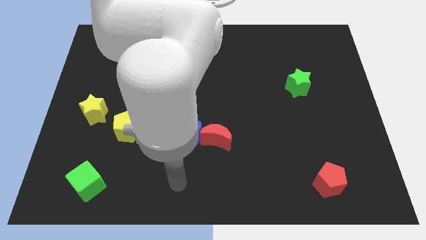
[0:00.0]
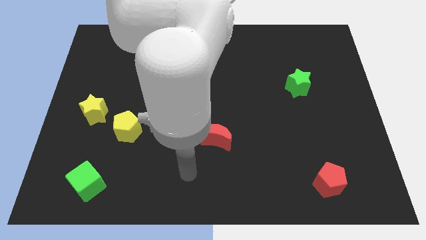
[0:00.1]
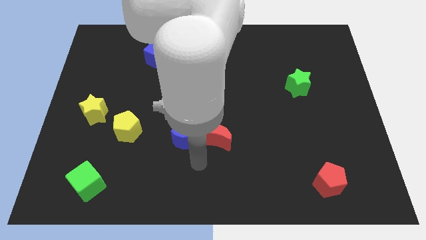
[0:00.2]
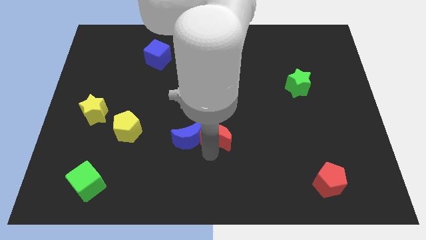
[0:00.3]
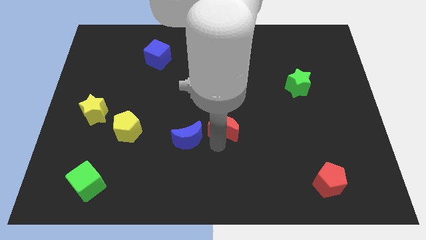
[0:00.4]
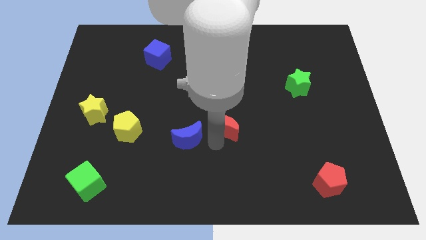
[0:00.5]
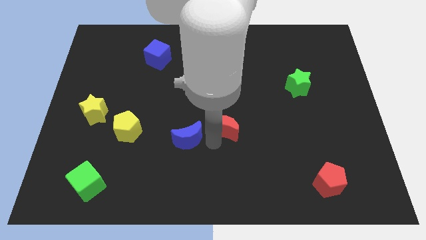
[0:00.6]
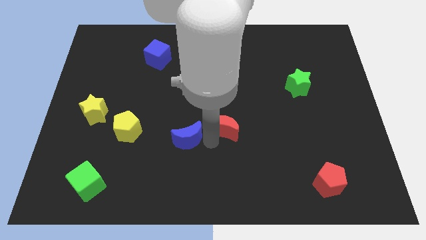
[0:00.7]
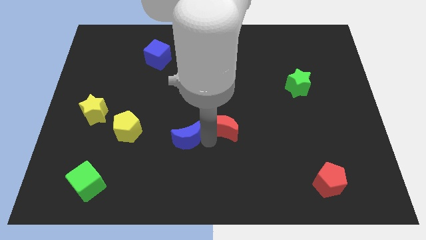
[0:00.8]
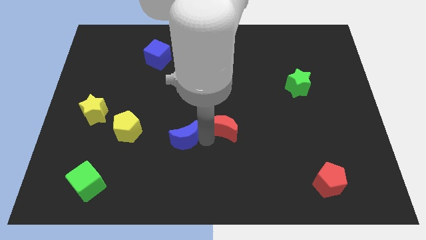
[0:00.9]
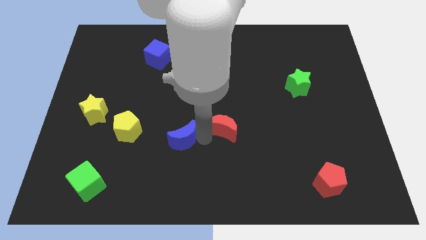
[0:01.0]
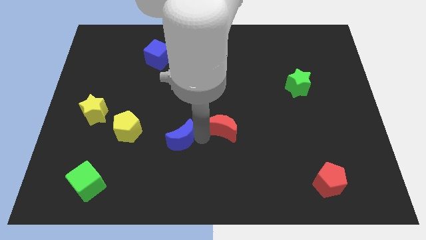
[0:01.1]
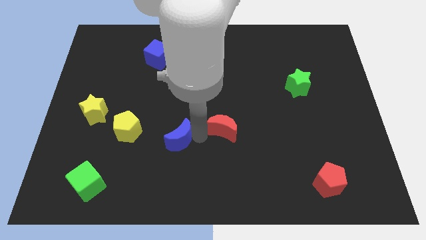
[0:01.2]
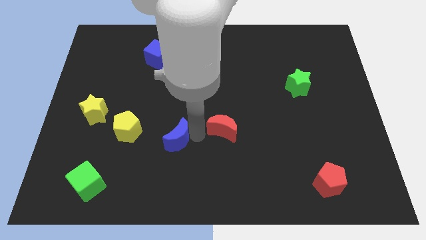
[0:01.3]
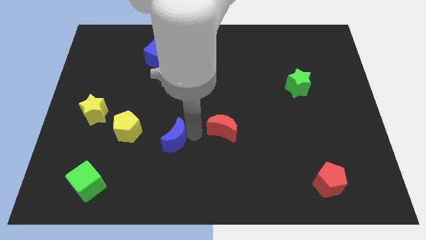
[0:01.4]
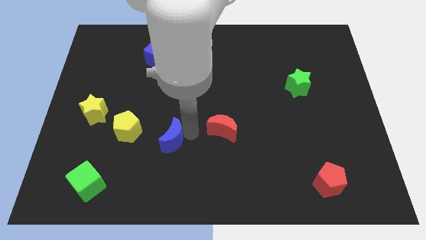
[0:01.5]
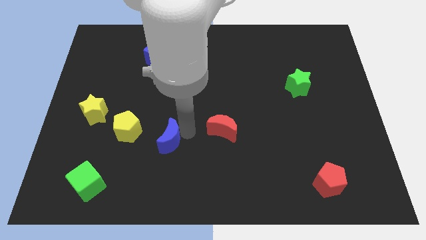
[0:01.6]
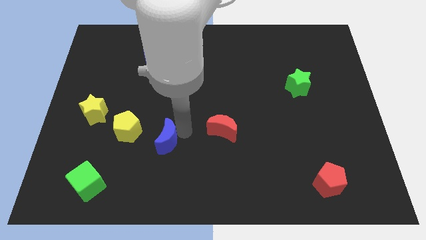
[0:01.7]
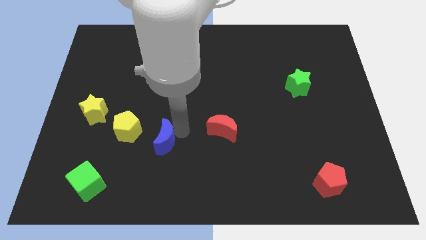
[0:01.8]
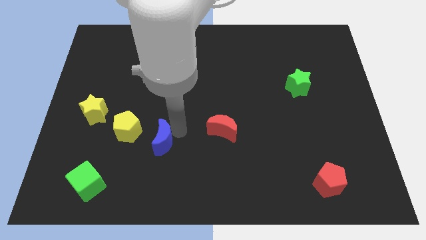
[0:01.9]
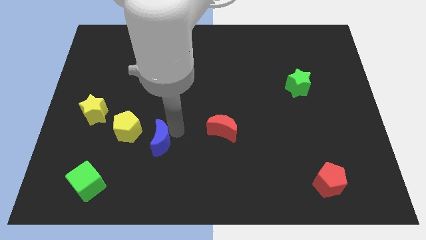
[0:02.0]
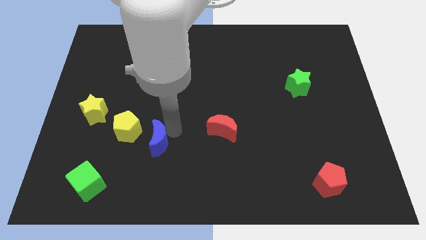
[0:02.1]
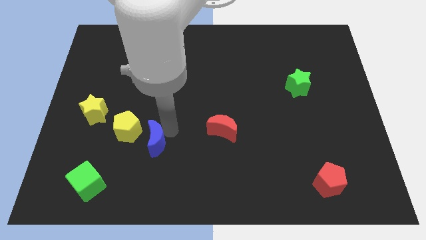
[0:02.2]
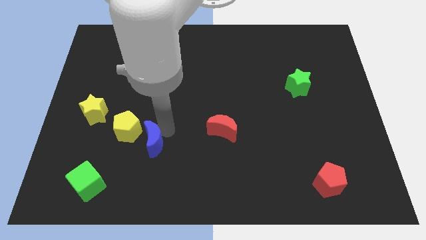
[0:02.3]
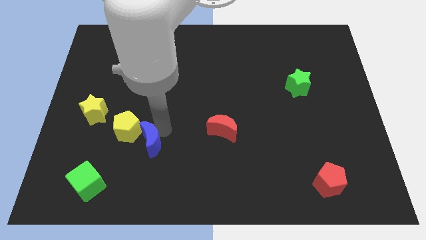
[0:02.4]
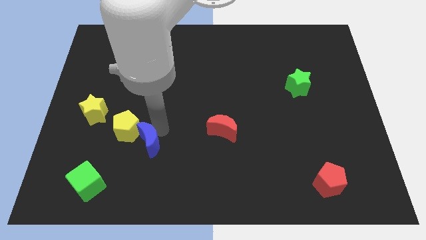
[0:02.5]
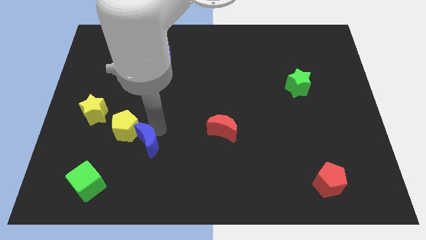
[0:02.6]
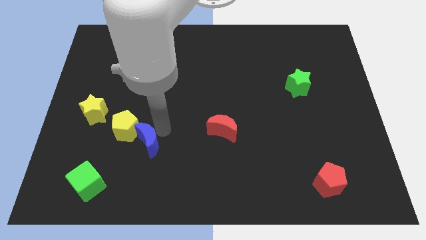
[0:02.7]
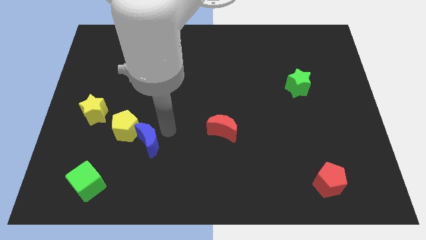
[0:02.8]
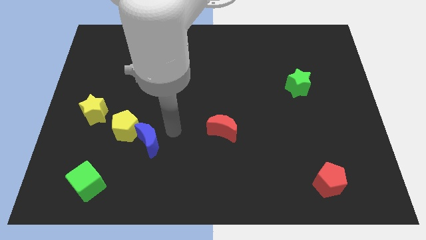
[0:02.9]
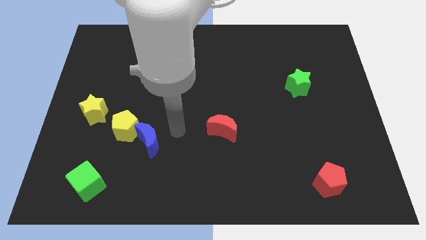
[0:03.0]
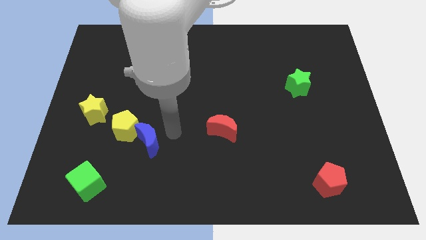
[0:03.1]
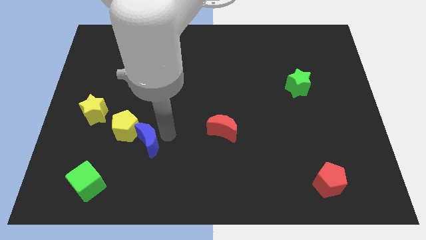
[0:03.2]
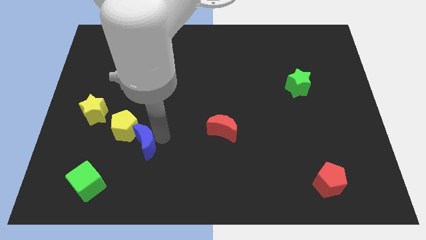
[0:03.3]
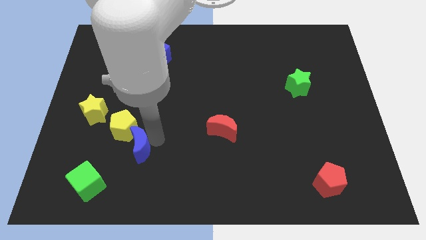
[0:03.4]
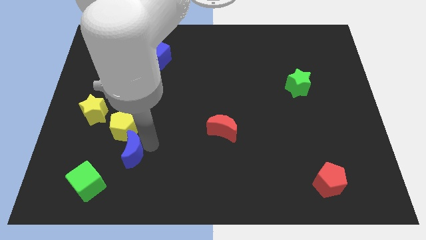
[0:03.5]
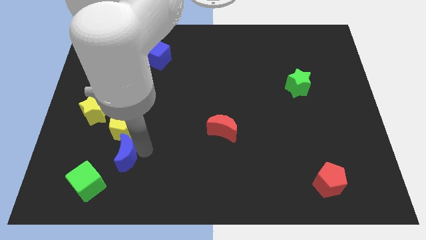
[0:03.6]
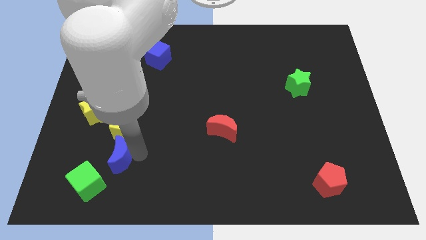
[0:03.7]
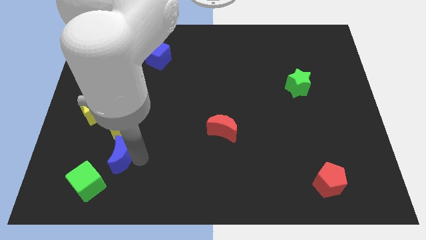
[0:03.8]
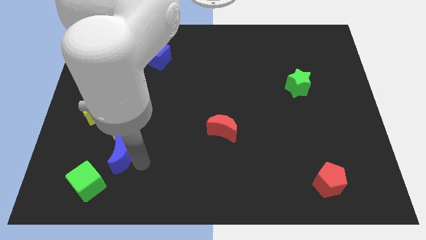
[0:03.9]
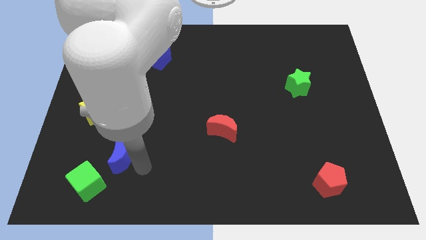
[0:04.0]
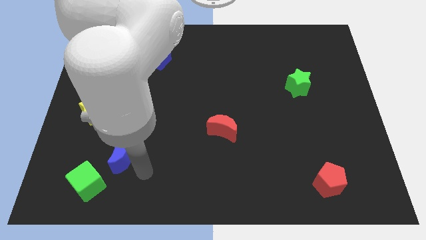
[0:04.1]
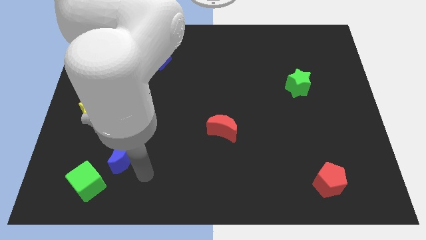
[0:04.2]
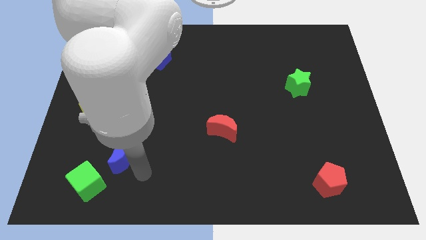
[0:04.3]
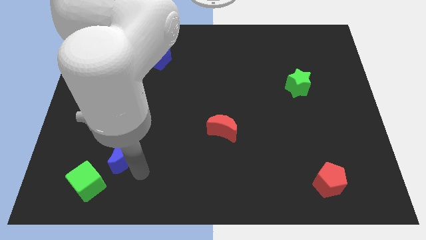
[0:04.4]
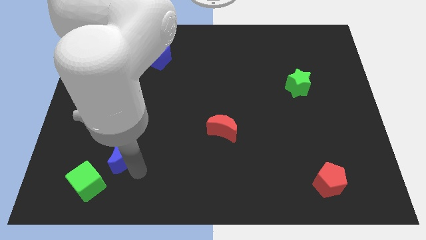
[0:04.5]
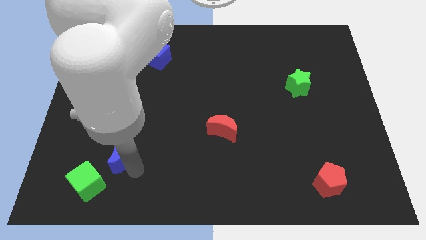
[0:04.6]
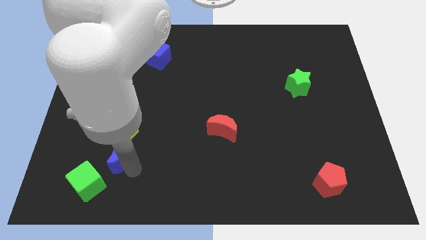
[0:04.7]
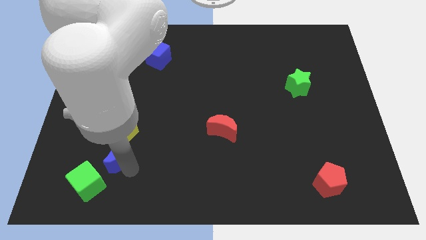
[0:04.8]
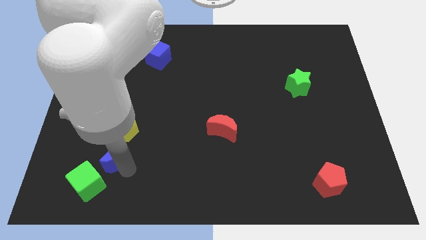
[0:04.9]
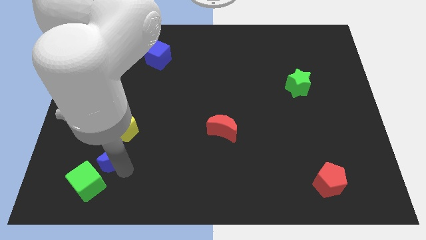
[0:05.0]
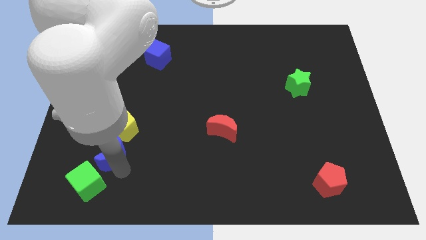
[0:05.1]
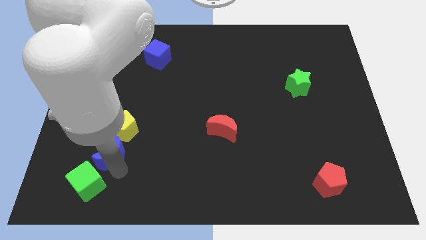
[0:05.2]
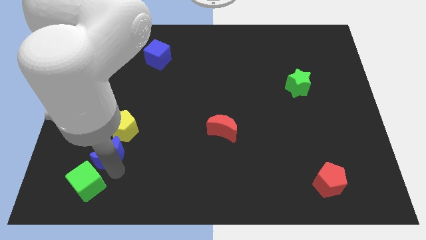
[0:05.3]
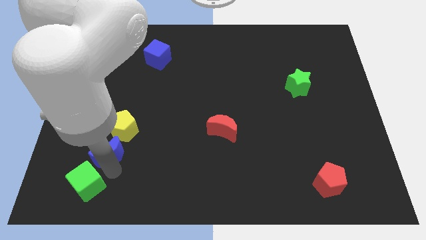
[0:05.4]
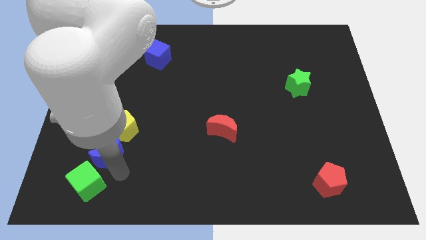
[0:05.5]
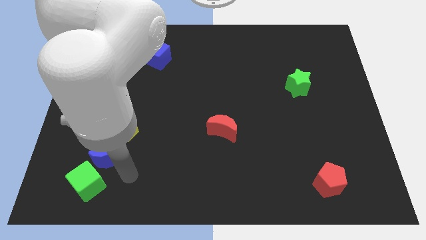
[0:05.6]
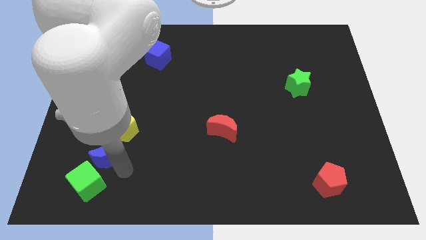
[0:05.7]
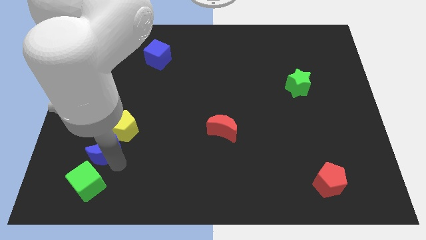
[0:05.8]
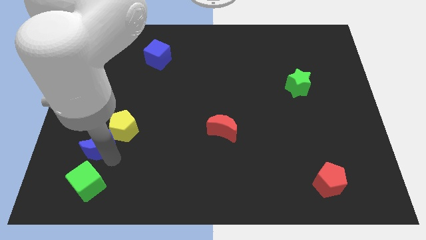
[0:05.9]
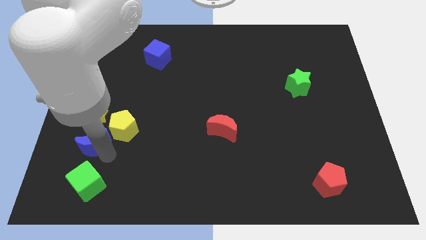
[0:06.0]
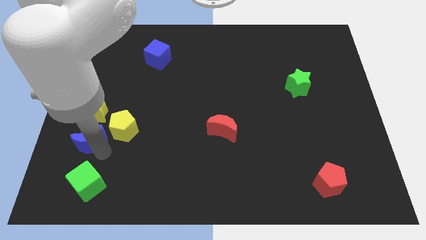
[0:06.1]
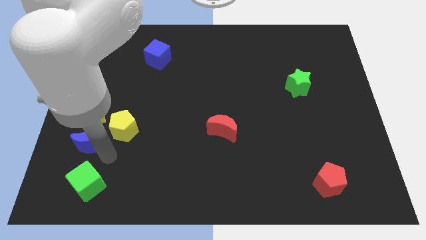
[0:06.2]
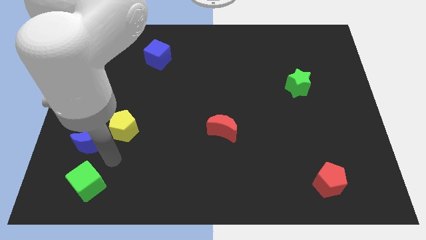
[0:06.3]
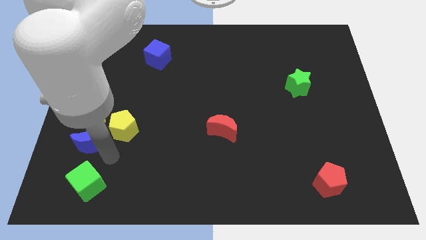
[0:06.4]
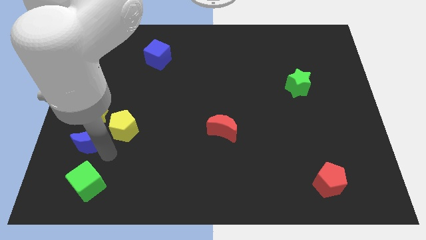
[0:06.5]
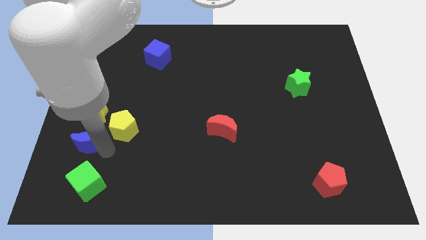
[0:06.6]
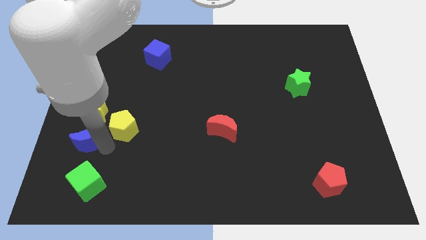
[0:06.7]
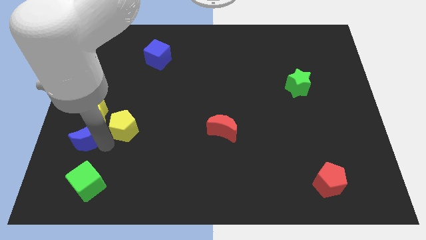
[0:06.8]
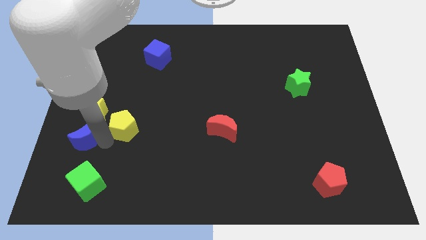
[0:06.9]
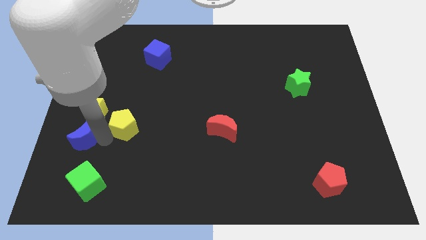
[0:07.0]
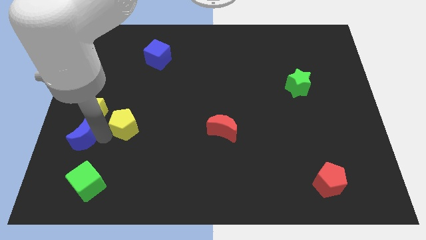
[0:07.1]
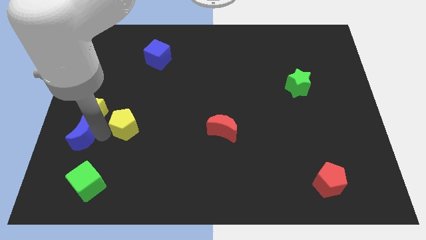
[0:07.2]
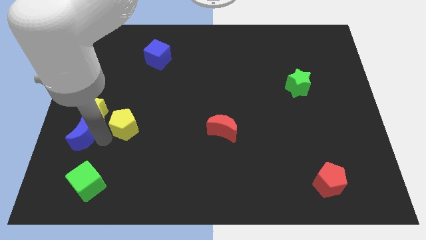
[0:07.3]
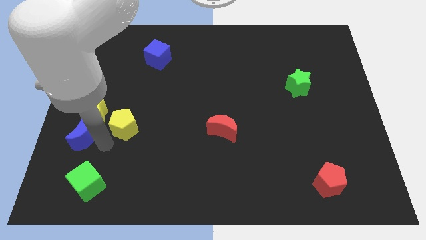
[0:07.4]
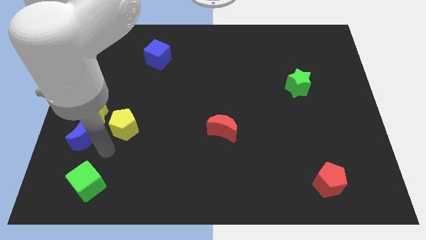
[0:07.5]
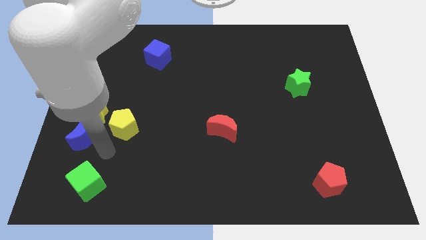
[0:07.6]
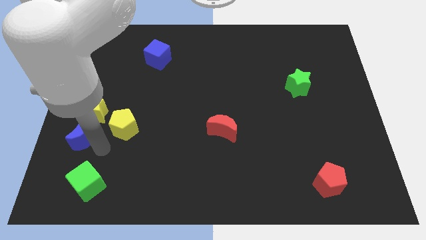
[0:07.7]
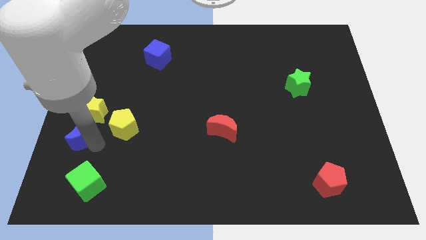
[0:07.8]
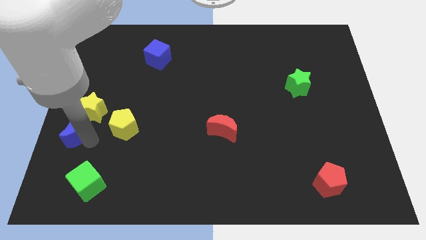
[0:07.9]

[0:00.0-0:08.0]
move the blue moon to the left side
